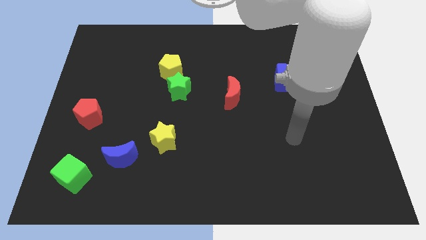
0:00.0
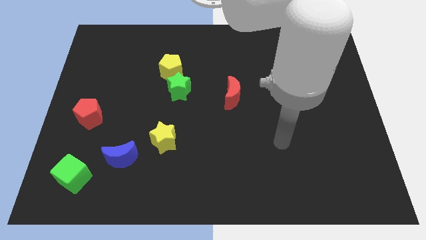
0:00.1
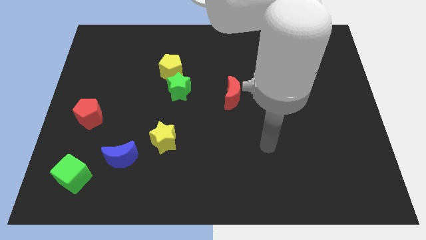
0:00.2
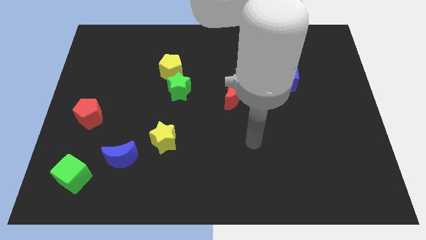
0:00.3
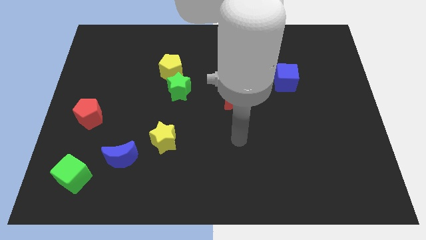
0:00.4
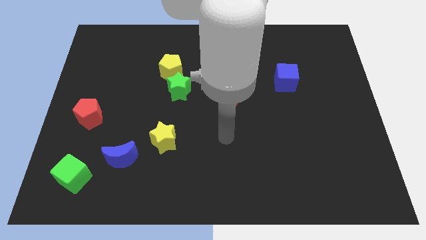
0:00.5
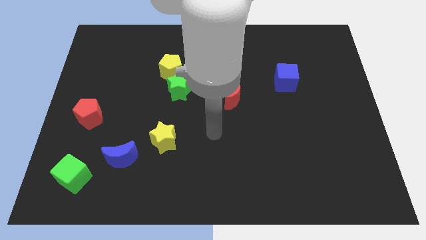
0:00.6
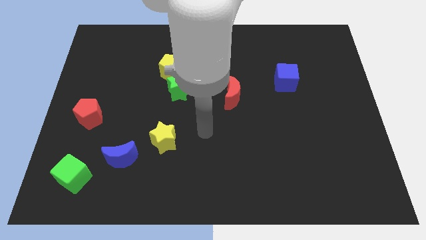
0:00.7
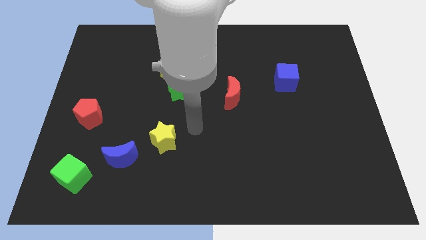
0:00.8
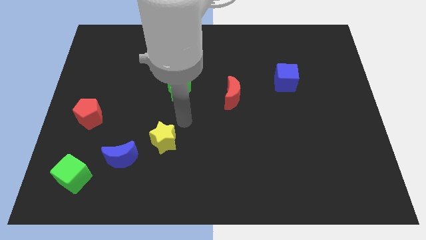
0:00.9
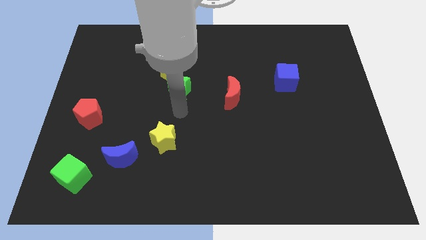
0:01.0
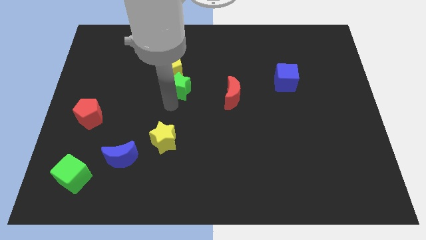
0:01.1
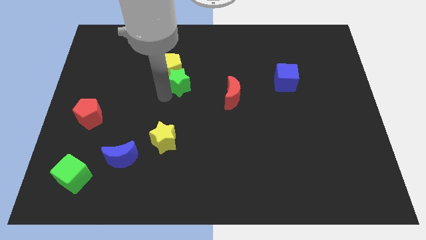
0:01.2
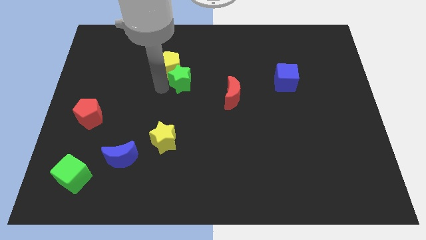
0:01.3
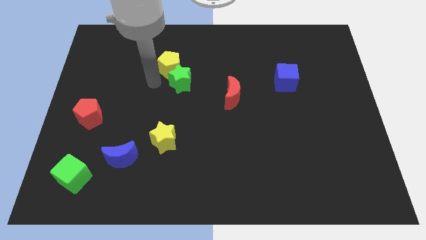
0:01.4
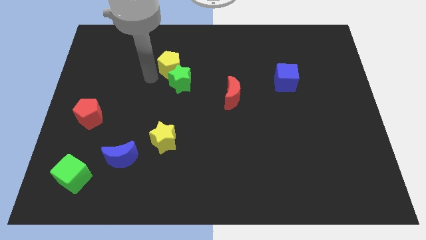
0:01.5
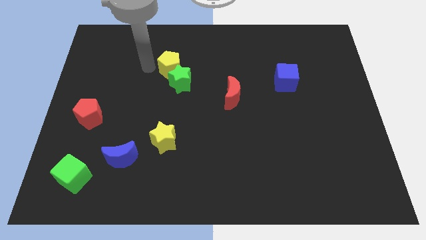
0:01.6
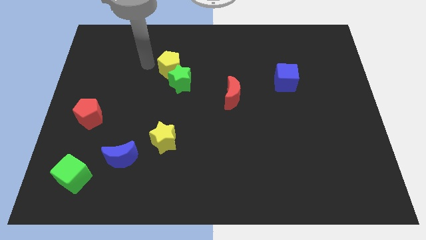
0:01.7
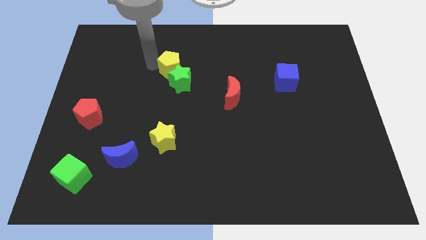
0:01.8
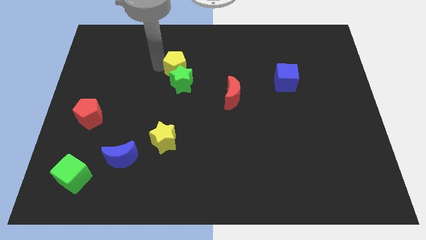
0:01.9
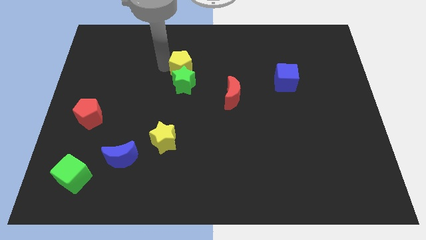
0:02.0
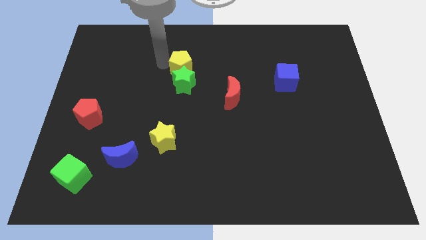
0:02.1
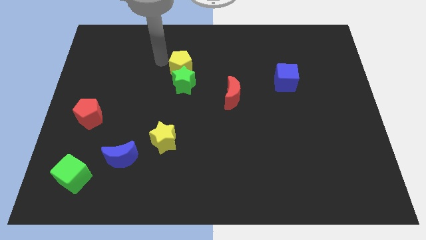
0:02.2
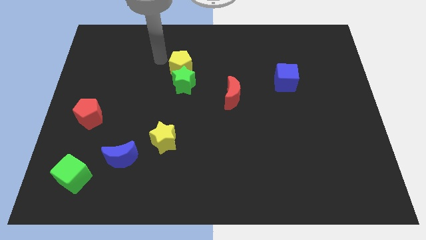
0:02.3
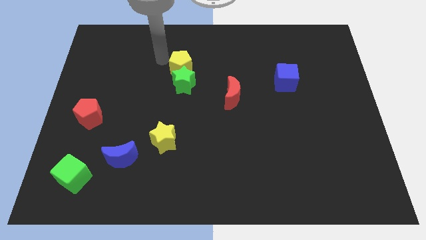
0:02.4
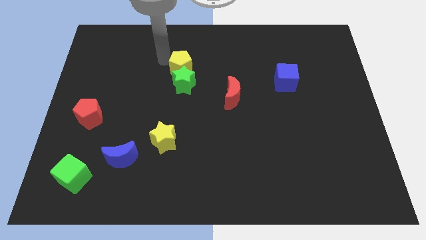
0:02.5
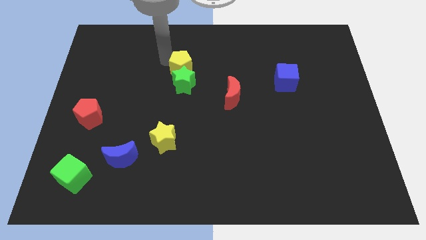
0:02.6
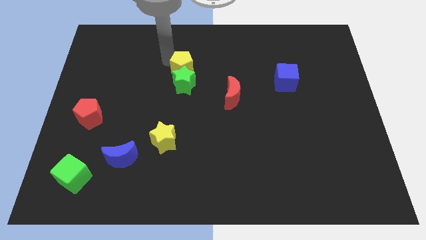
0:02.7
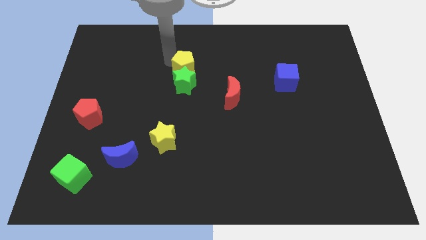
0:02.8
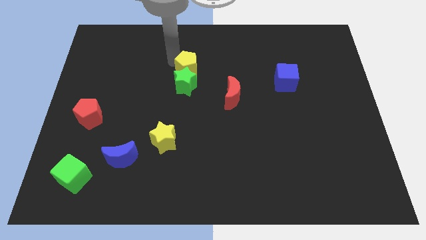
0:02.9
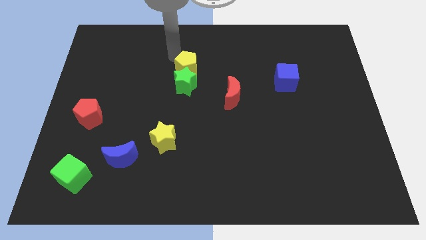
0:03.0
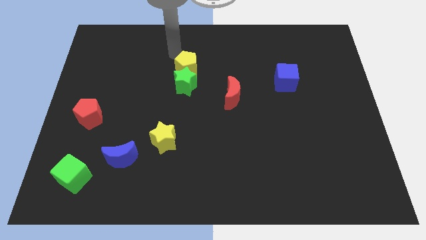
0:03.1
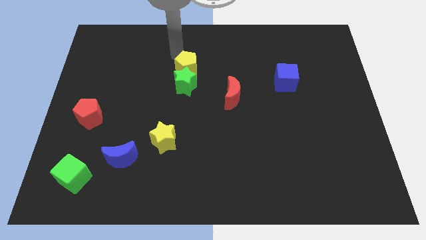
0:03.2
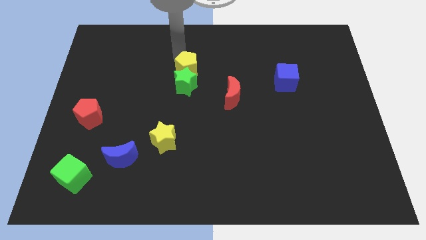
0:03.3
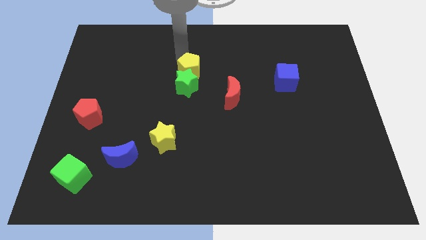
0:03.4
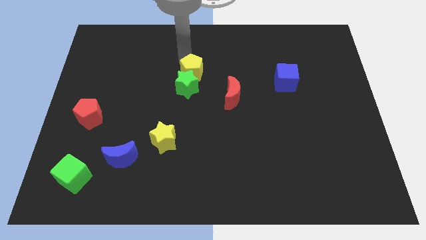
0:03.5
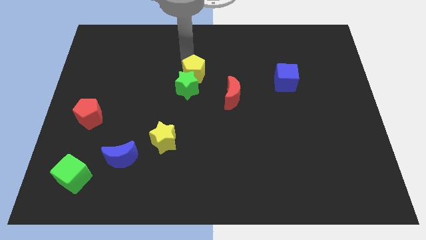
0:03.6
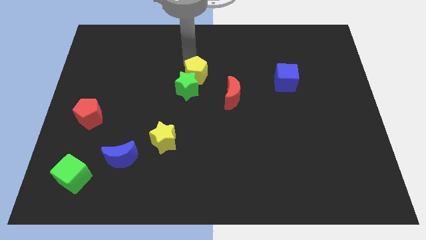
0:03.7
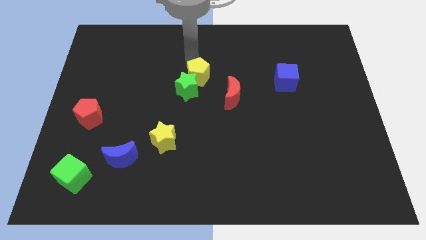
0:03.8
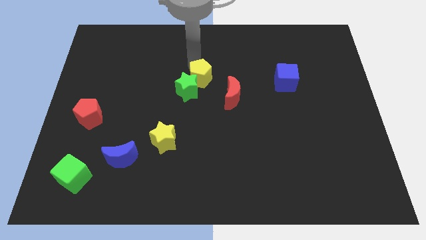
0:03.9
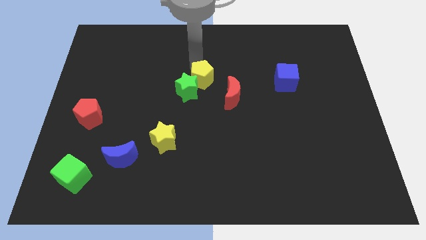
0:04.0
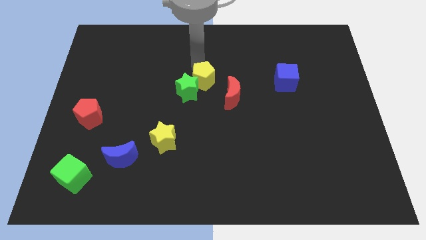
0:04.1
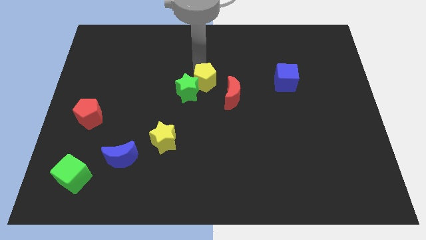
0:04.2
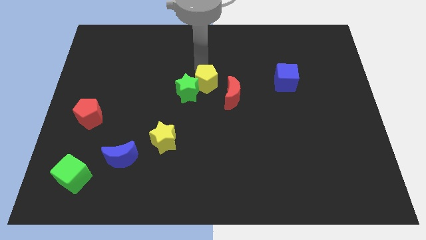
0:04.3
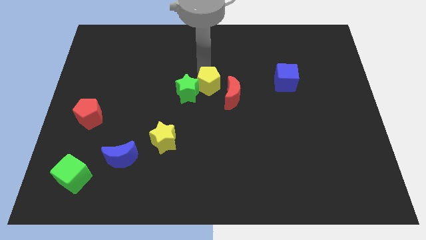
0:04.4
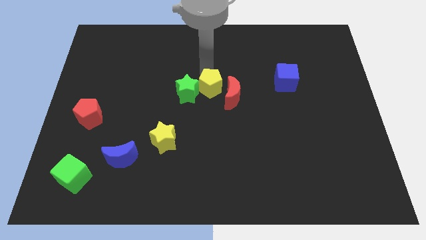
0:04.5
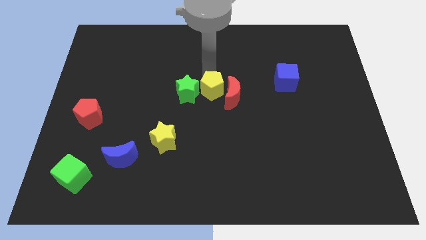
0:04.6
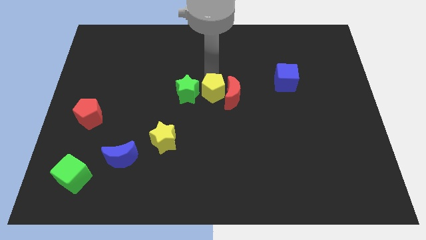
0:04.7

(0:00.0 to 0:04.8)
push the yellow pentagon to the bottom left of the red moon

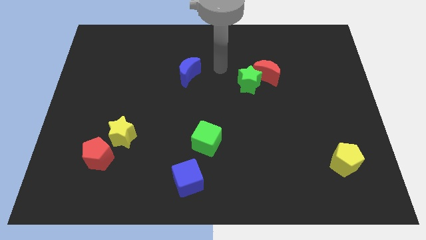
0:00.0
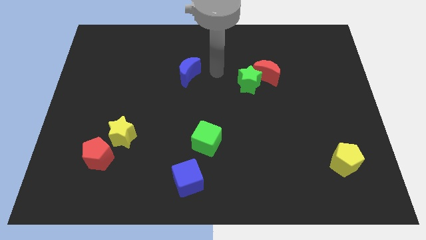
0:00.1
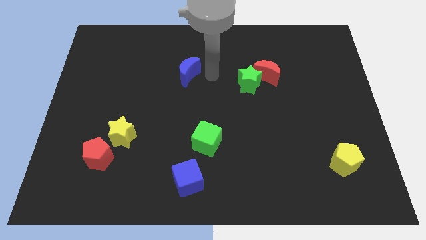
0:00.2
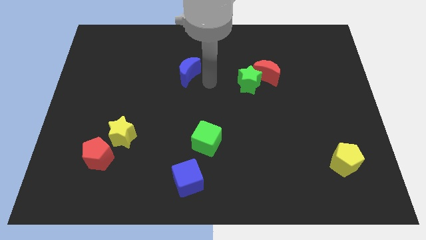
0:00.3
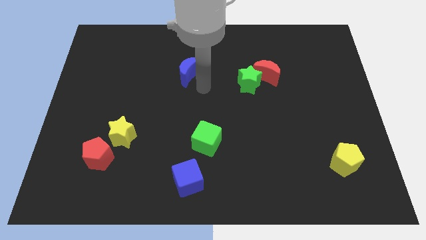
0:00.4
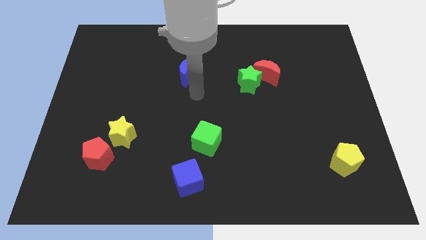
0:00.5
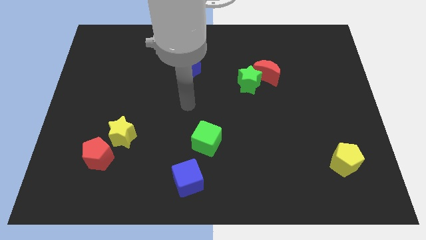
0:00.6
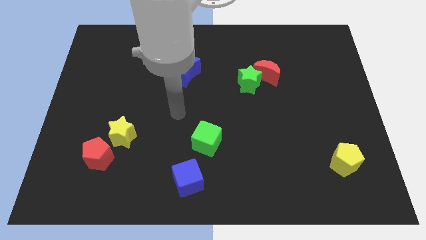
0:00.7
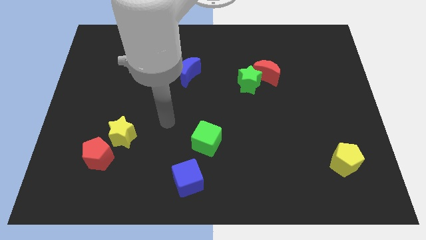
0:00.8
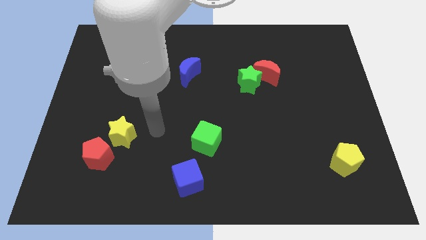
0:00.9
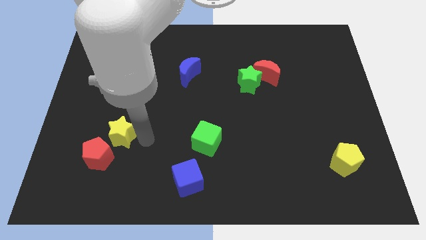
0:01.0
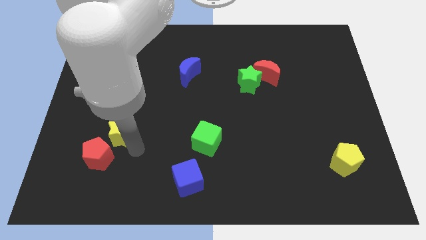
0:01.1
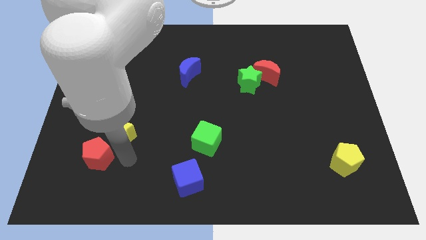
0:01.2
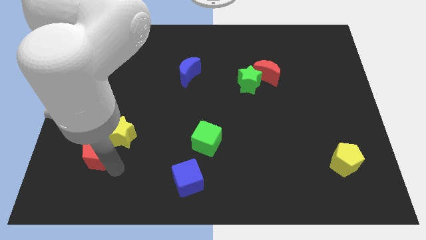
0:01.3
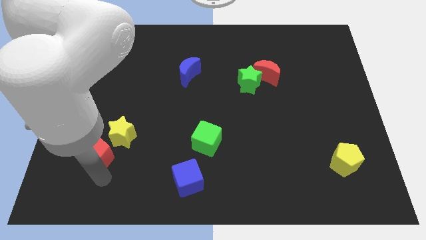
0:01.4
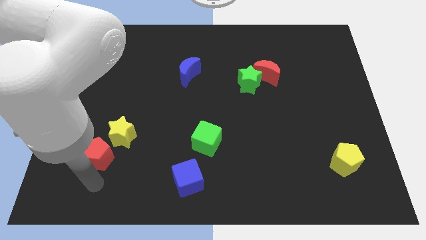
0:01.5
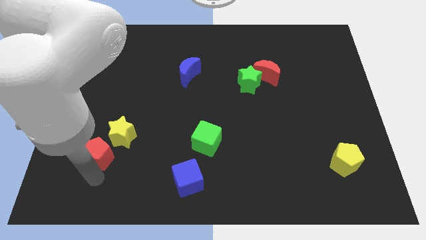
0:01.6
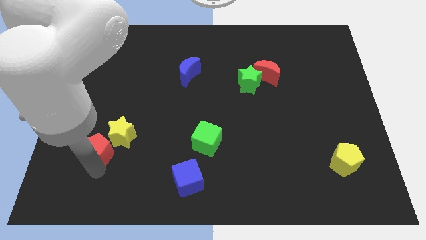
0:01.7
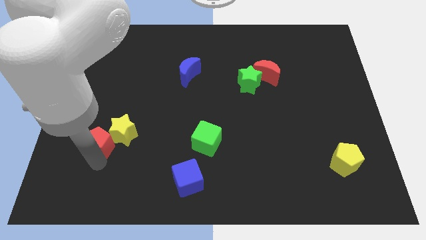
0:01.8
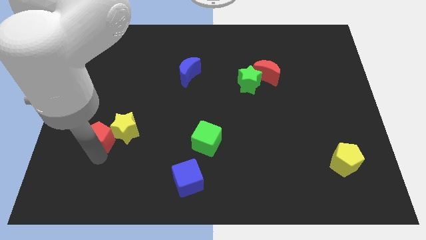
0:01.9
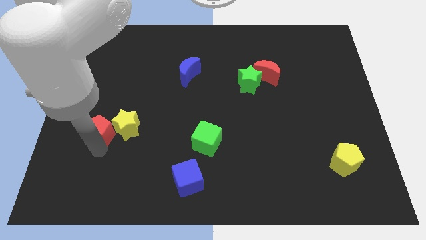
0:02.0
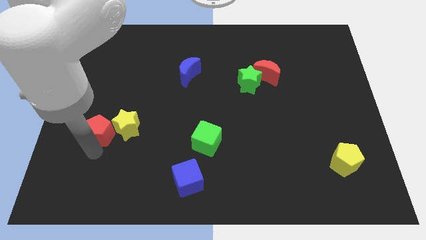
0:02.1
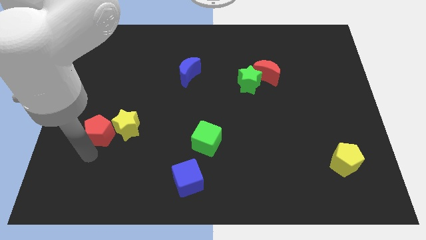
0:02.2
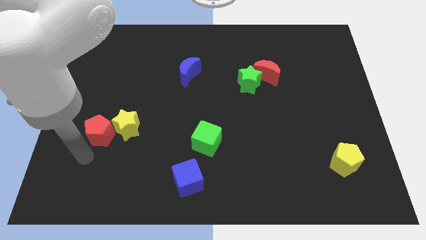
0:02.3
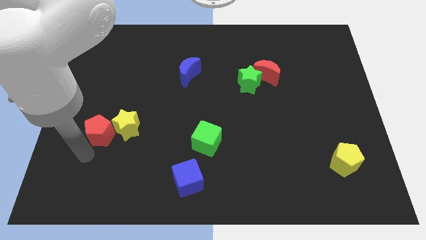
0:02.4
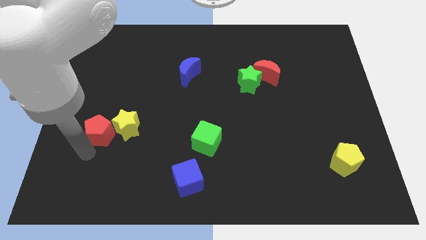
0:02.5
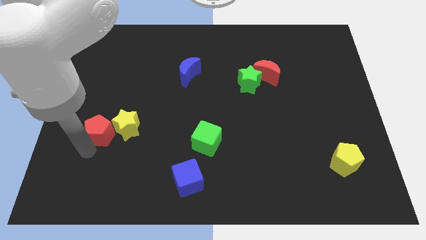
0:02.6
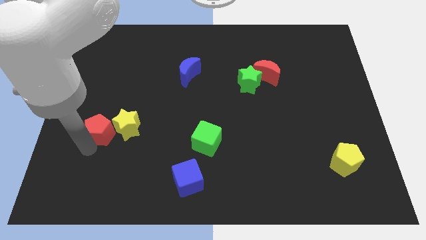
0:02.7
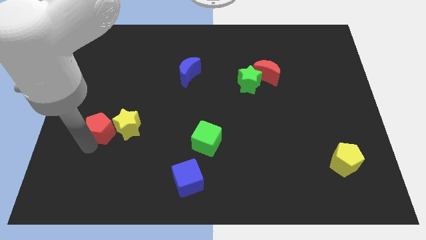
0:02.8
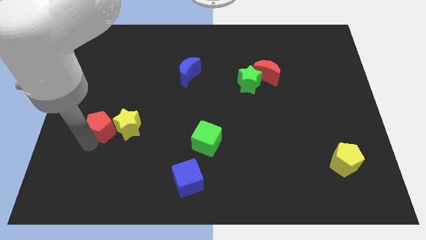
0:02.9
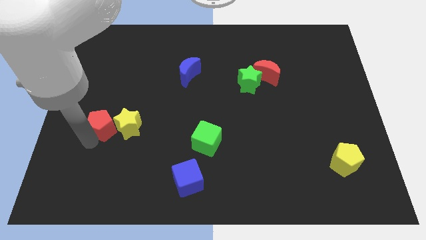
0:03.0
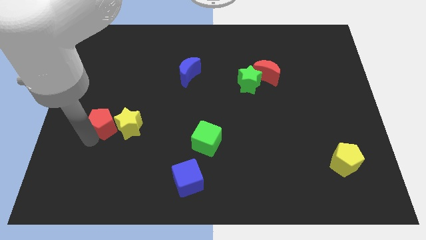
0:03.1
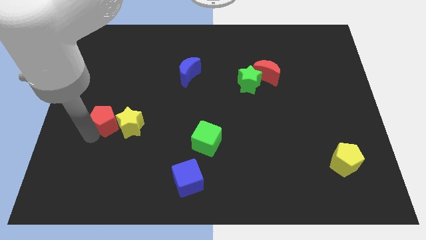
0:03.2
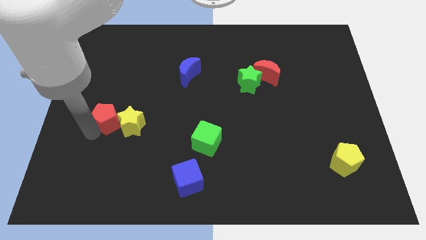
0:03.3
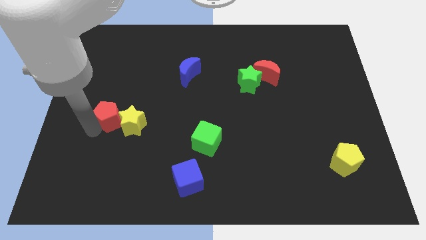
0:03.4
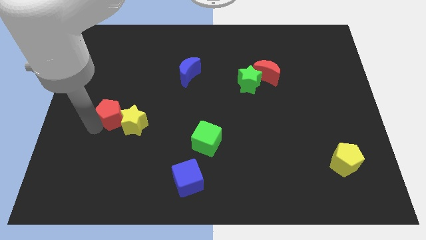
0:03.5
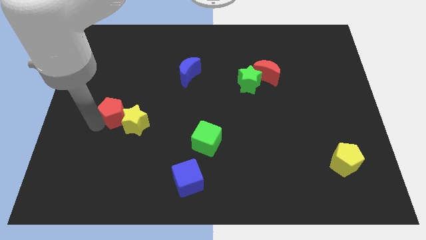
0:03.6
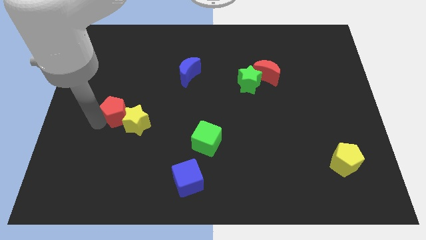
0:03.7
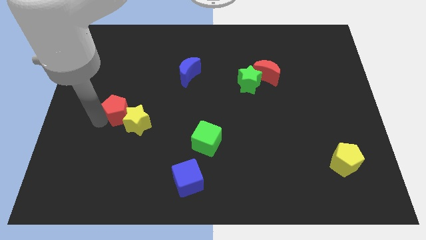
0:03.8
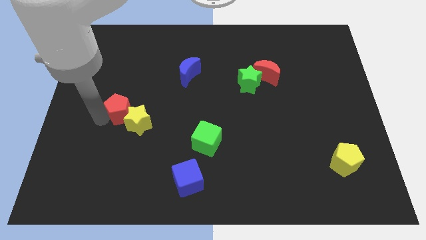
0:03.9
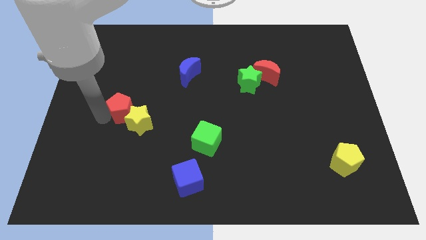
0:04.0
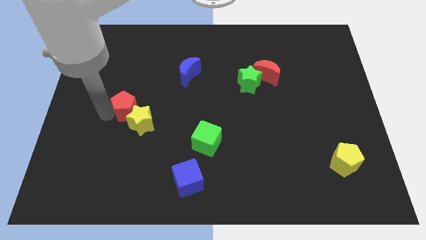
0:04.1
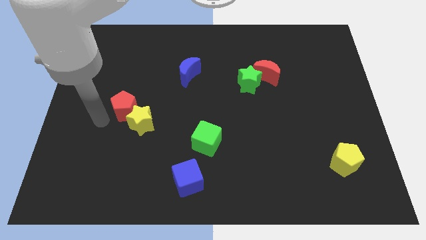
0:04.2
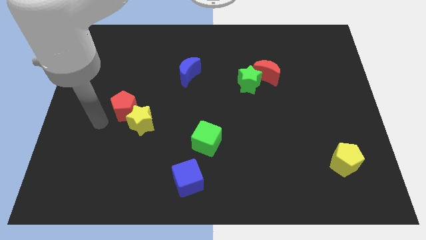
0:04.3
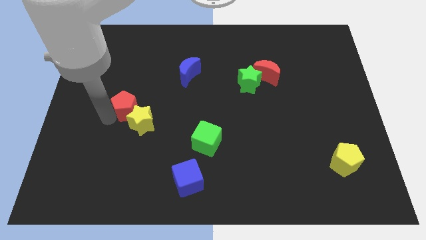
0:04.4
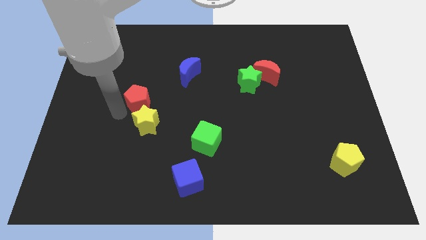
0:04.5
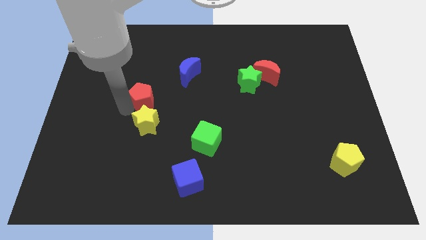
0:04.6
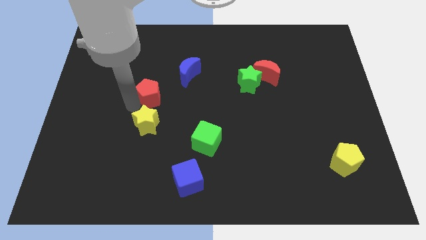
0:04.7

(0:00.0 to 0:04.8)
put the red pentagon diagonally down and to the left of the blue moon
